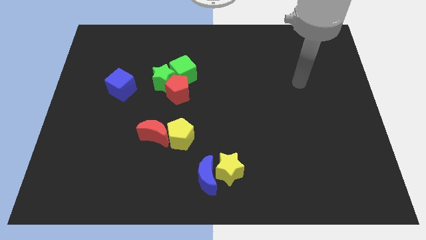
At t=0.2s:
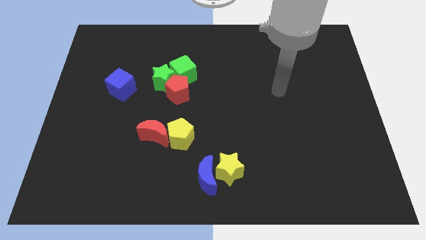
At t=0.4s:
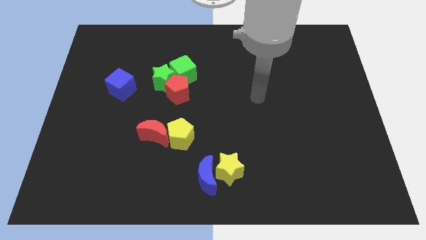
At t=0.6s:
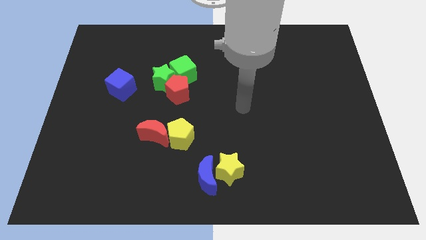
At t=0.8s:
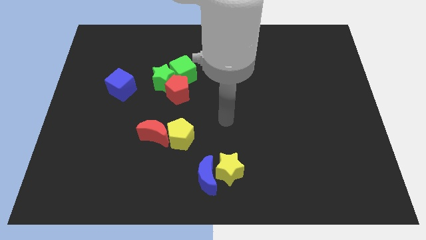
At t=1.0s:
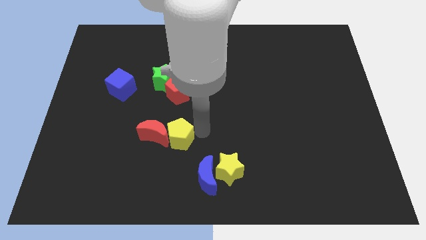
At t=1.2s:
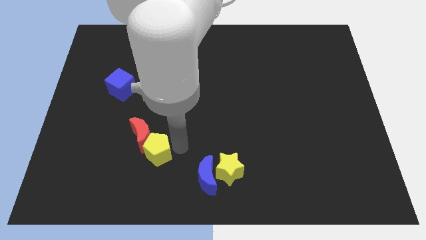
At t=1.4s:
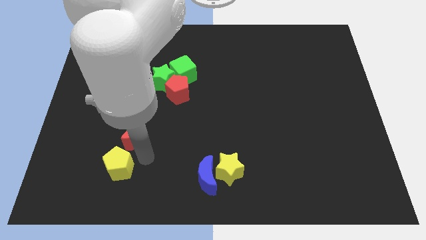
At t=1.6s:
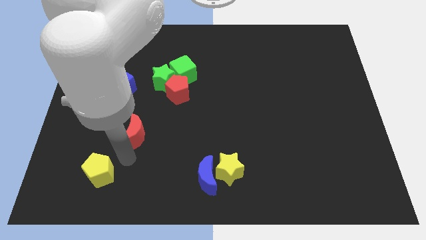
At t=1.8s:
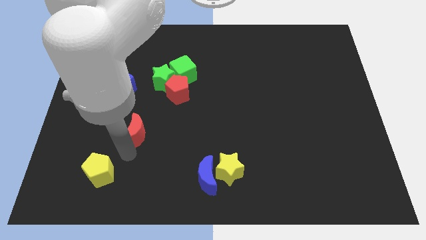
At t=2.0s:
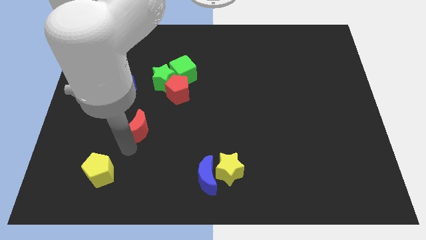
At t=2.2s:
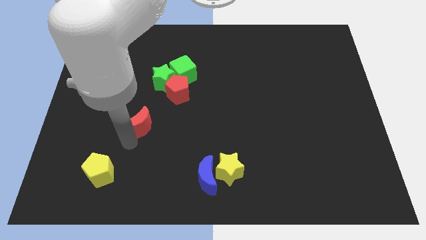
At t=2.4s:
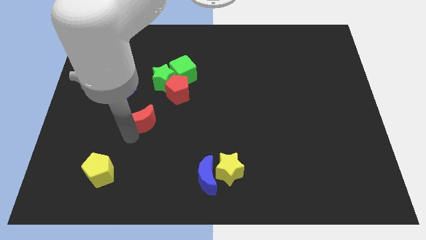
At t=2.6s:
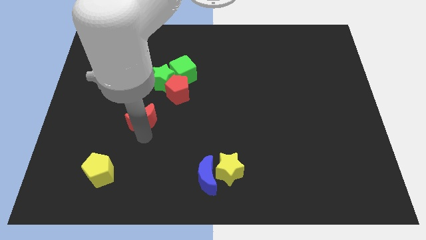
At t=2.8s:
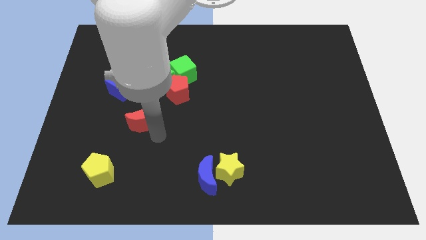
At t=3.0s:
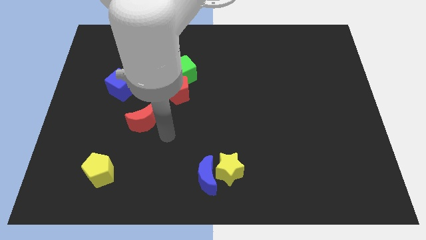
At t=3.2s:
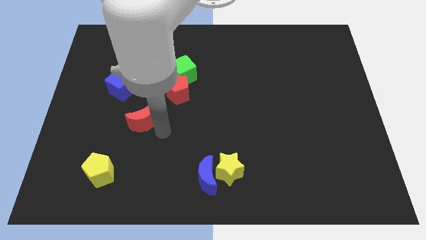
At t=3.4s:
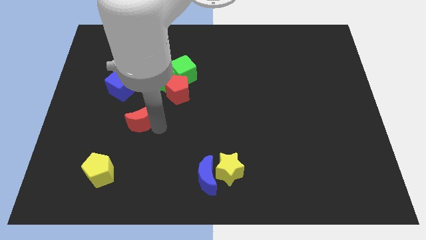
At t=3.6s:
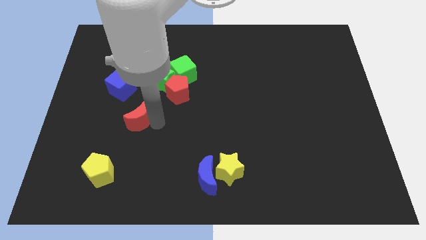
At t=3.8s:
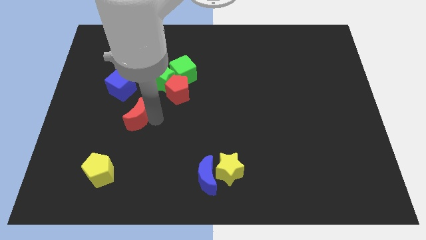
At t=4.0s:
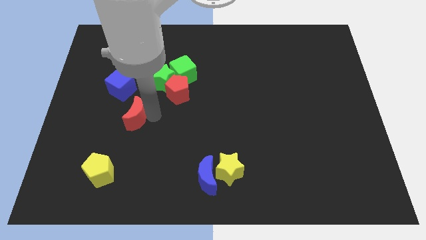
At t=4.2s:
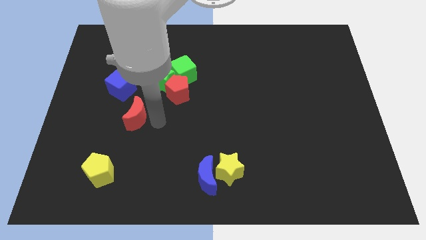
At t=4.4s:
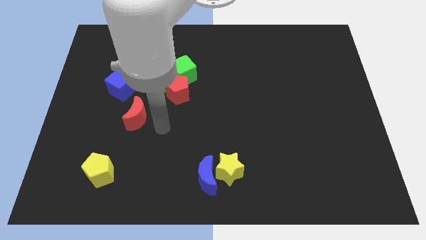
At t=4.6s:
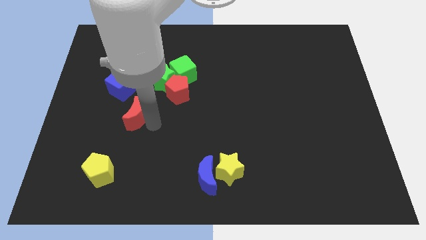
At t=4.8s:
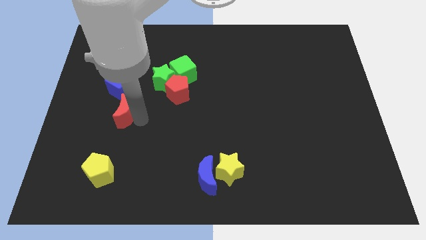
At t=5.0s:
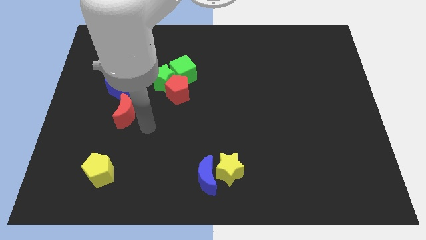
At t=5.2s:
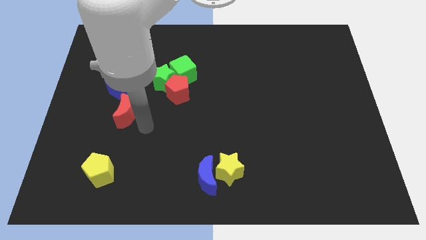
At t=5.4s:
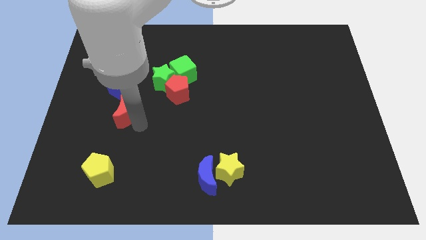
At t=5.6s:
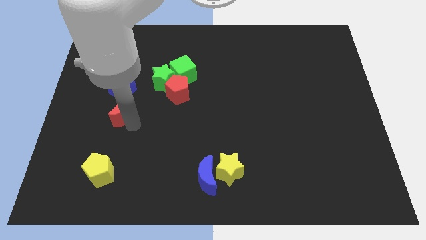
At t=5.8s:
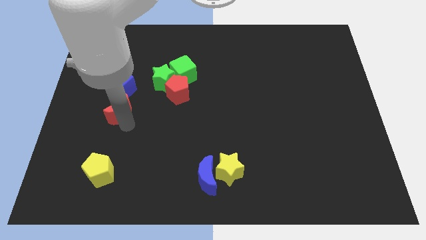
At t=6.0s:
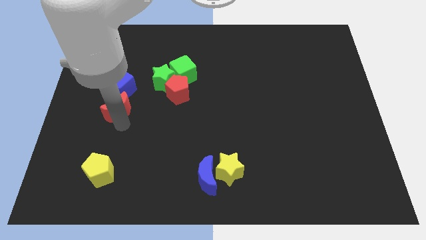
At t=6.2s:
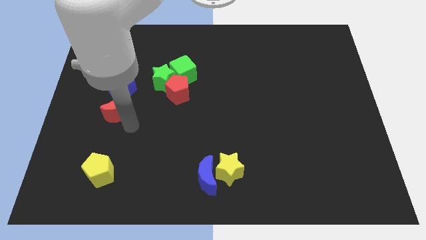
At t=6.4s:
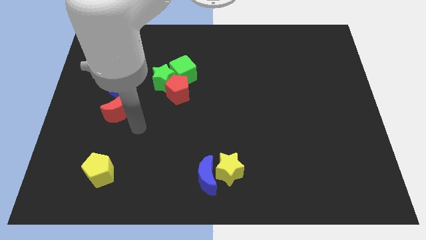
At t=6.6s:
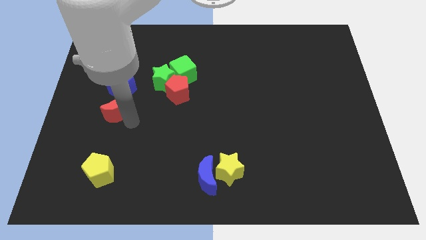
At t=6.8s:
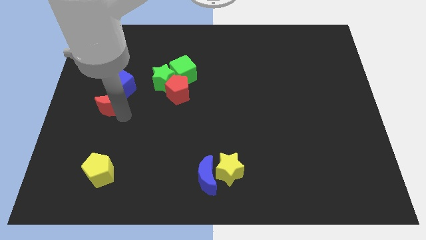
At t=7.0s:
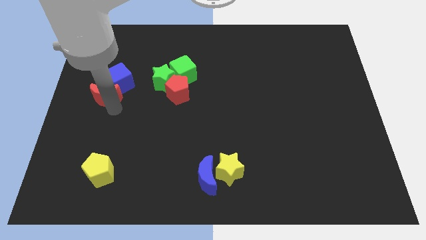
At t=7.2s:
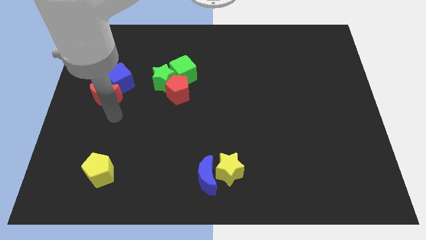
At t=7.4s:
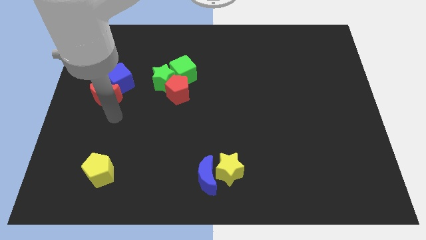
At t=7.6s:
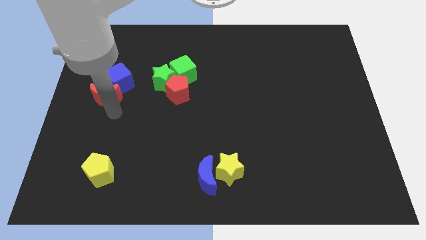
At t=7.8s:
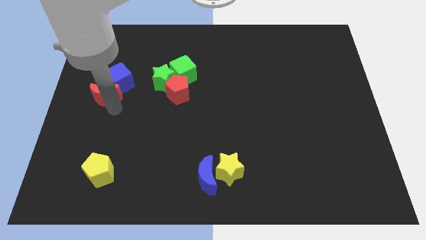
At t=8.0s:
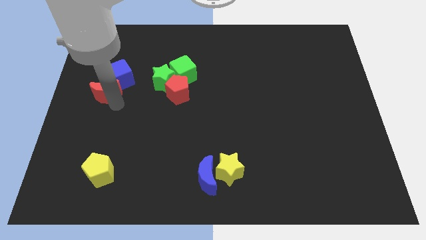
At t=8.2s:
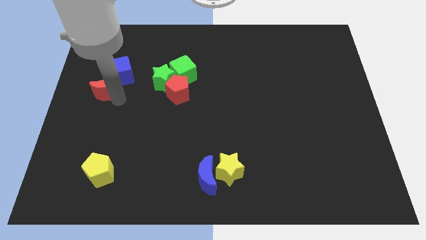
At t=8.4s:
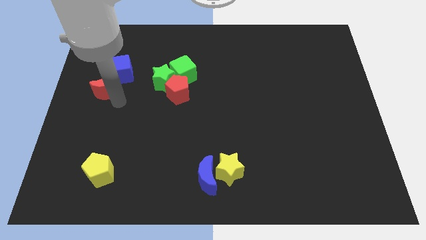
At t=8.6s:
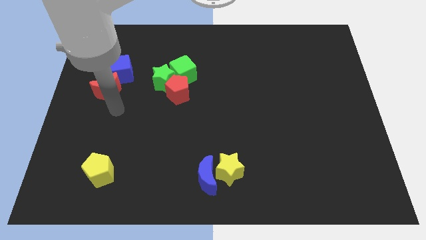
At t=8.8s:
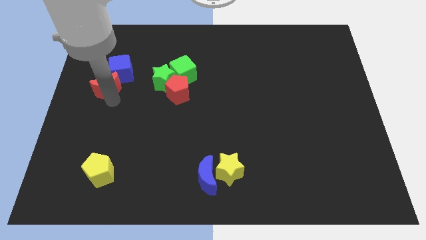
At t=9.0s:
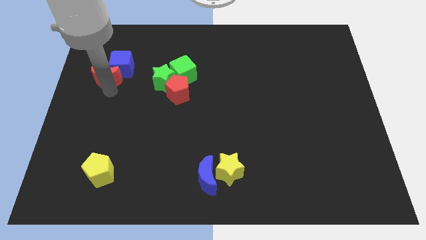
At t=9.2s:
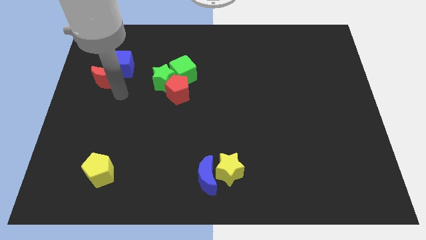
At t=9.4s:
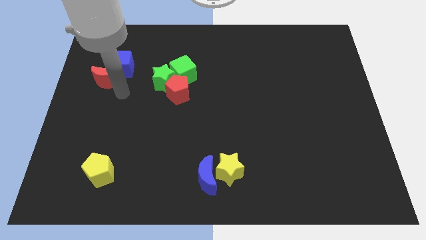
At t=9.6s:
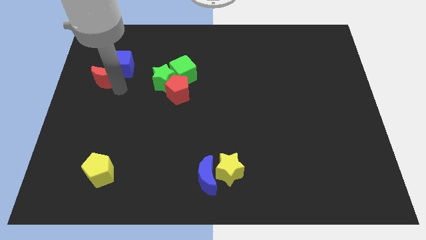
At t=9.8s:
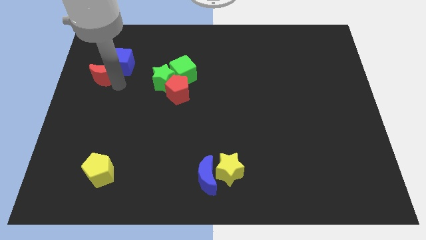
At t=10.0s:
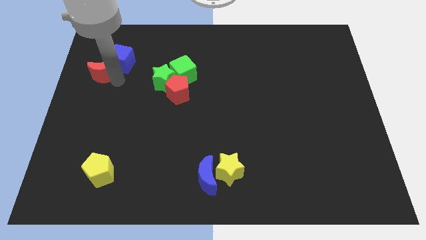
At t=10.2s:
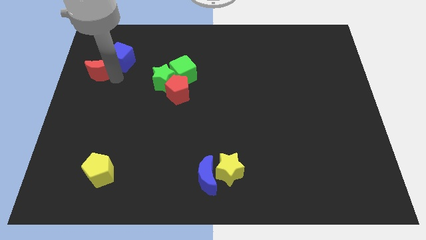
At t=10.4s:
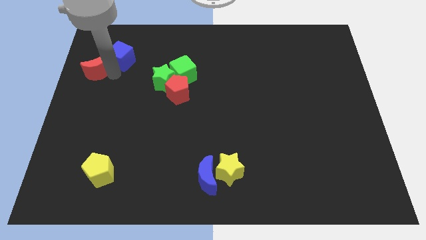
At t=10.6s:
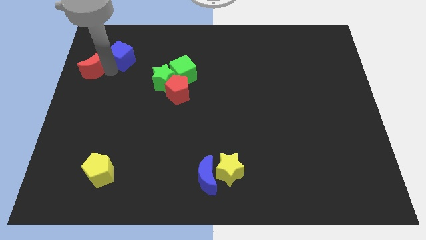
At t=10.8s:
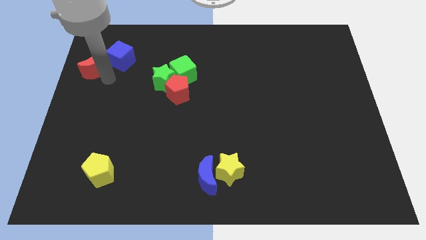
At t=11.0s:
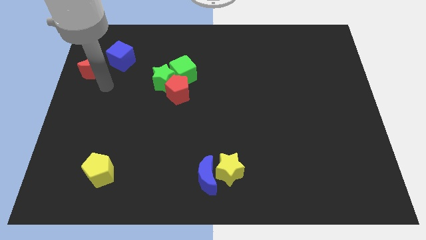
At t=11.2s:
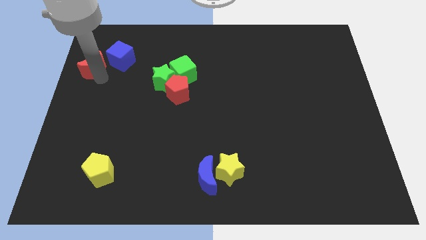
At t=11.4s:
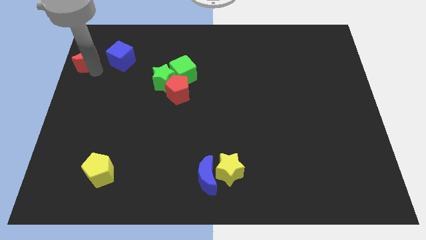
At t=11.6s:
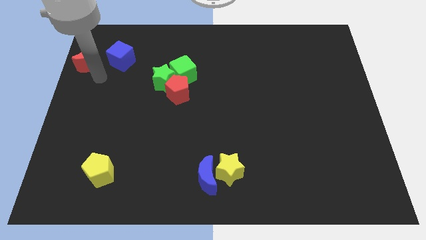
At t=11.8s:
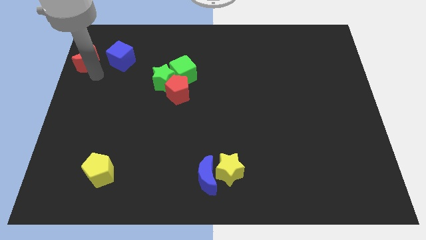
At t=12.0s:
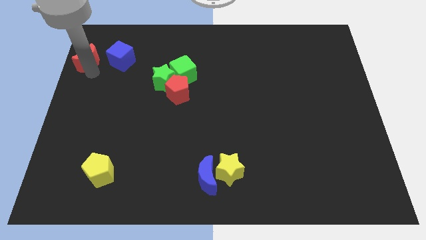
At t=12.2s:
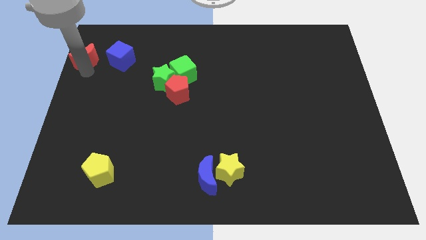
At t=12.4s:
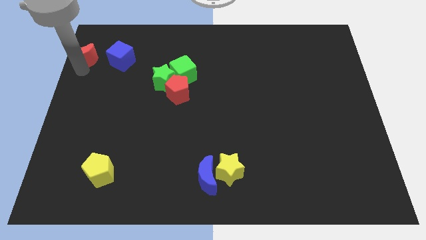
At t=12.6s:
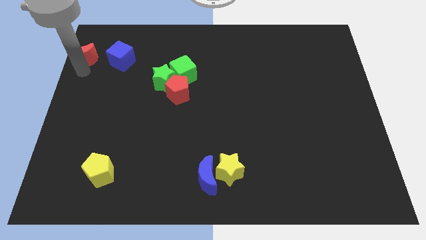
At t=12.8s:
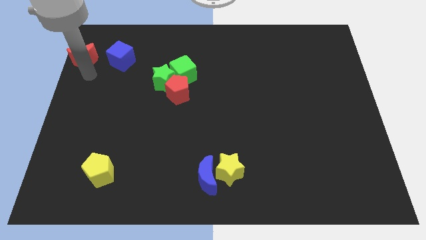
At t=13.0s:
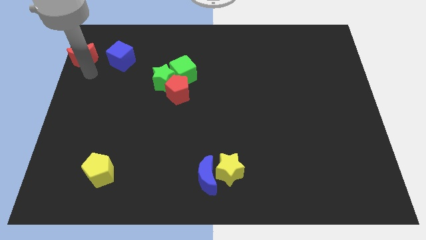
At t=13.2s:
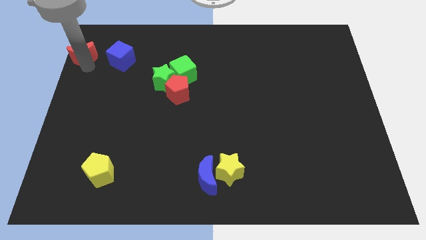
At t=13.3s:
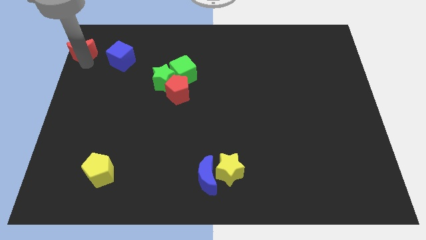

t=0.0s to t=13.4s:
move the red moon to the top left of the board
